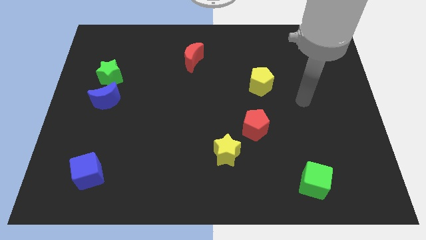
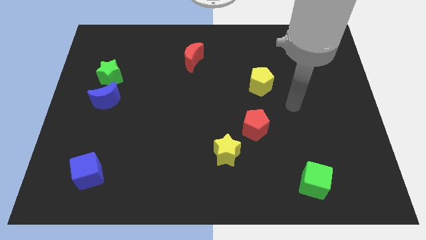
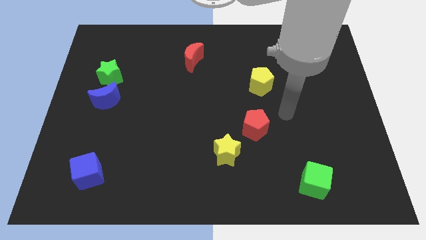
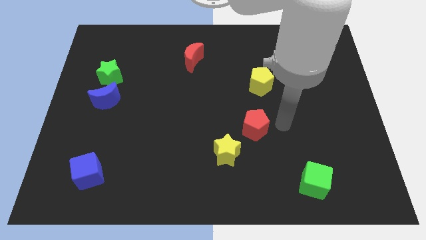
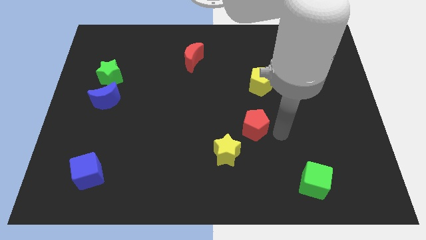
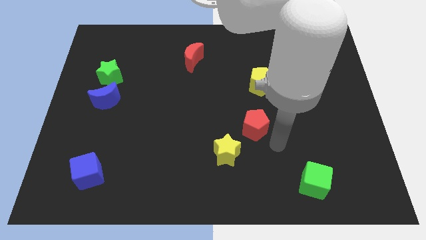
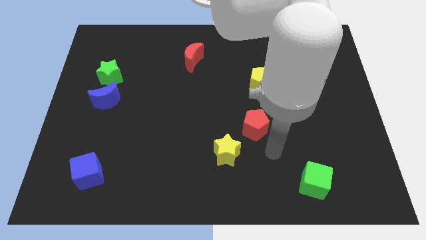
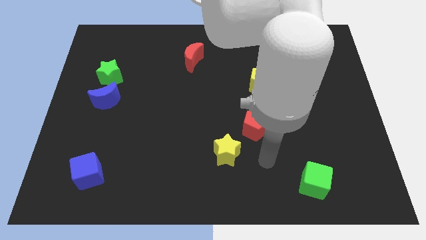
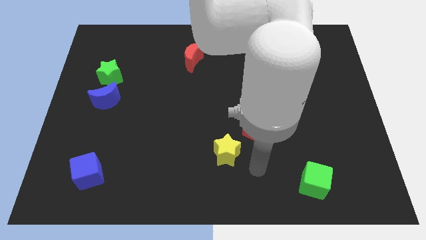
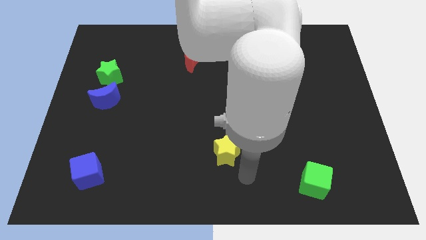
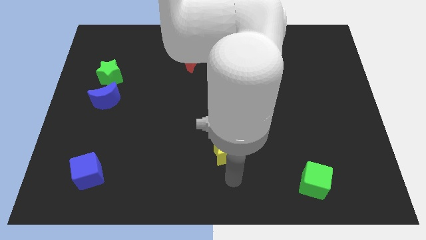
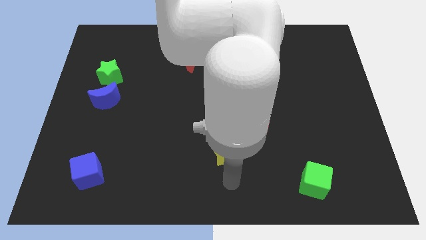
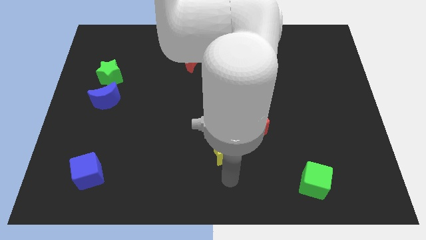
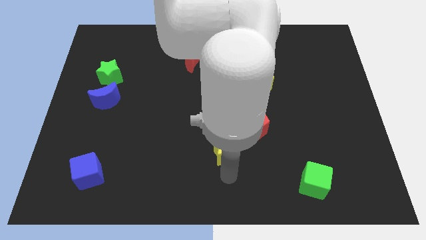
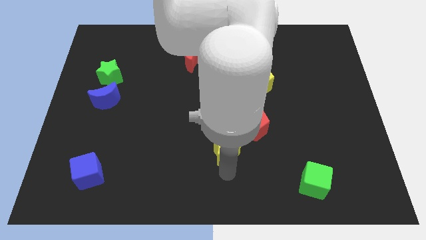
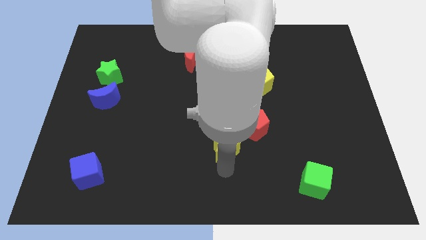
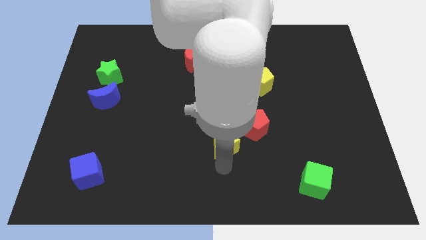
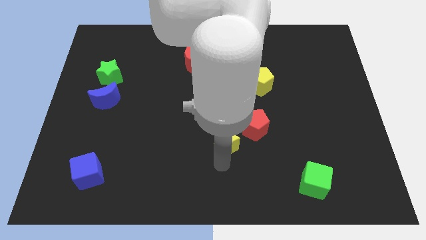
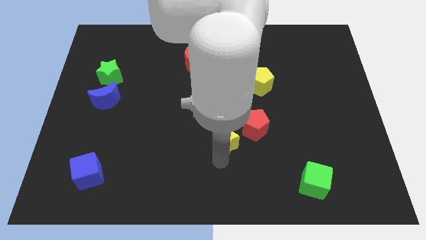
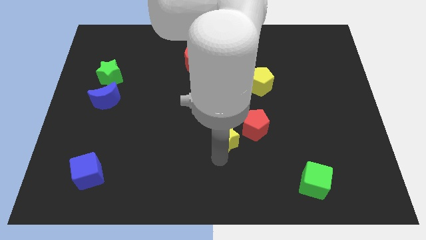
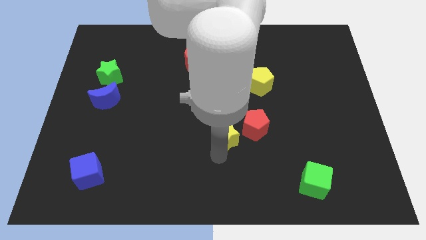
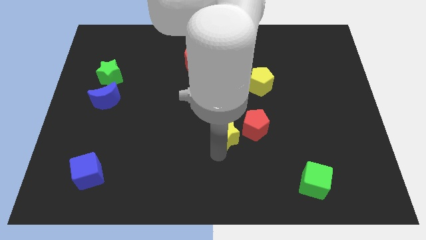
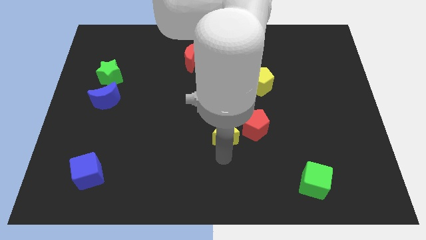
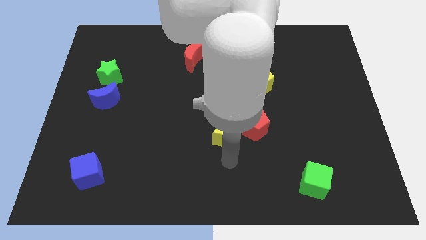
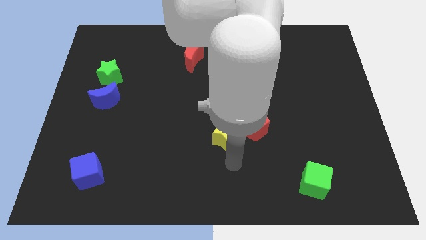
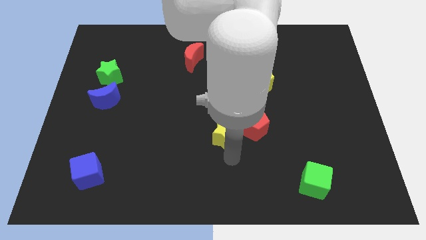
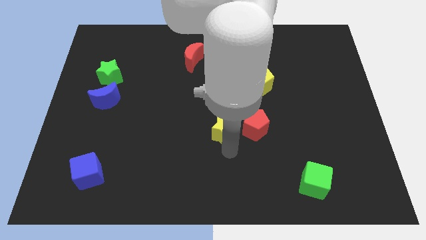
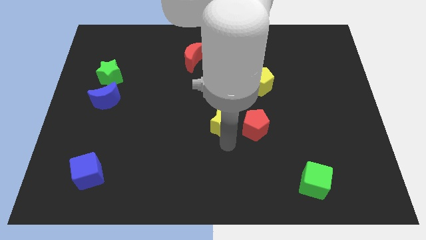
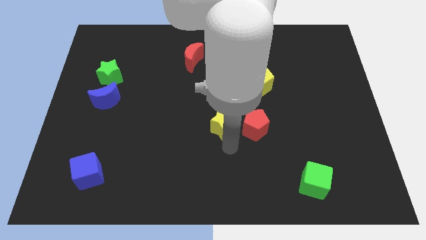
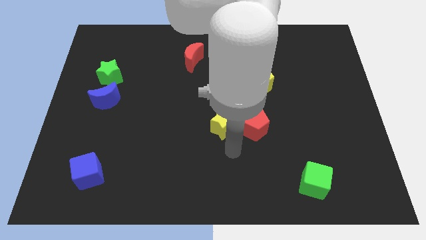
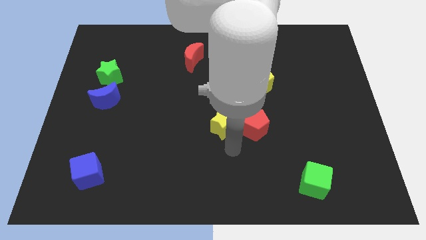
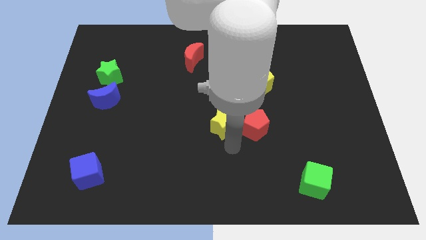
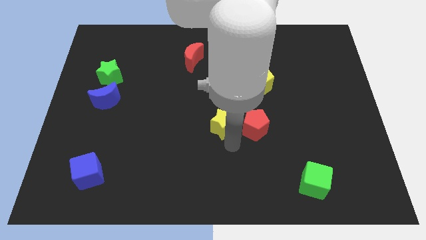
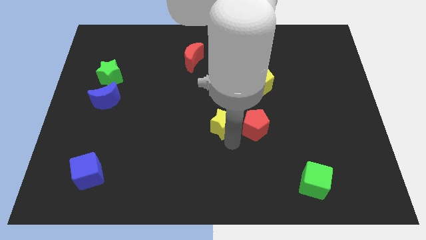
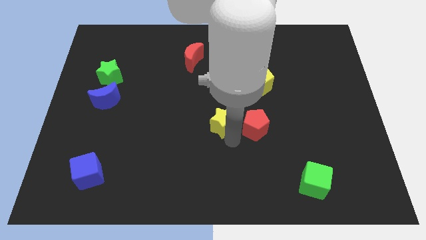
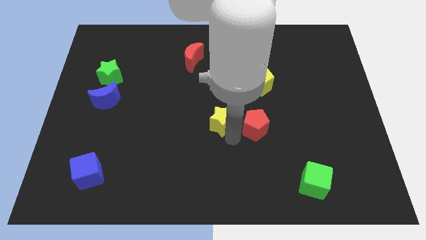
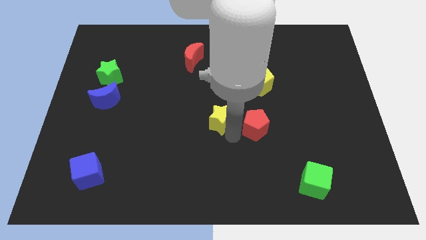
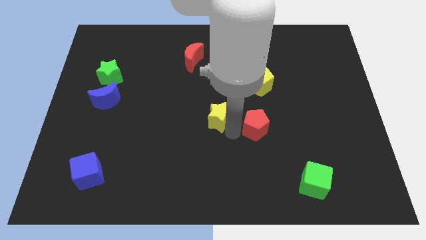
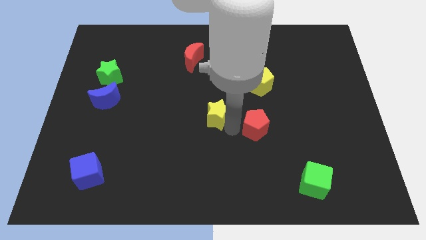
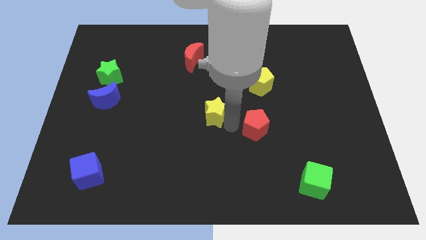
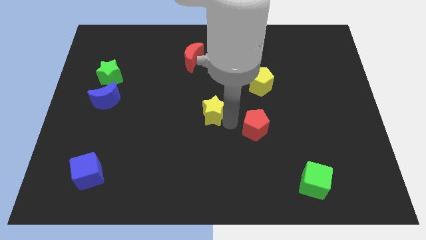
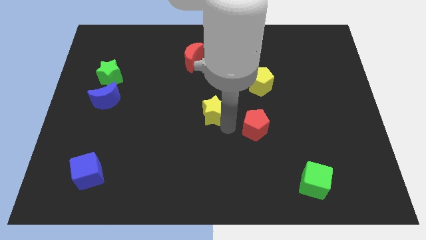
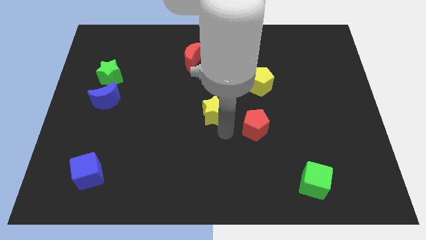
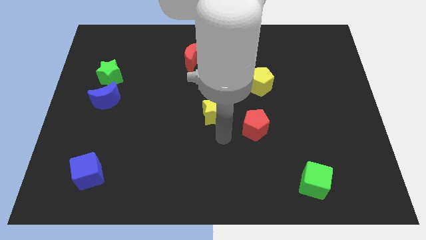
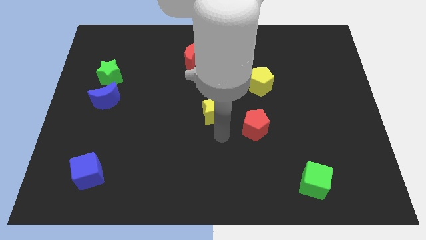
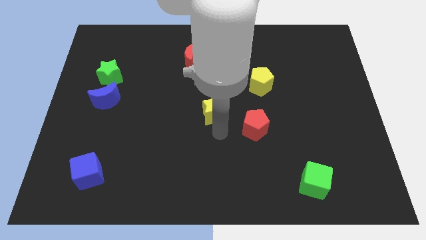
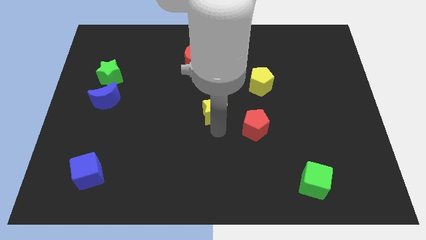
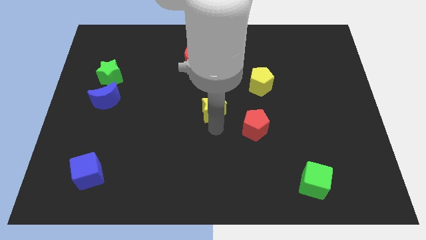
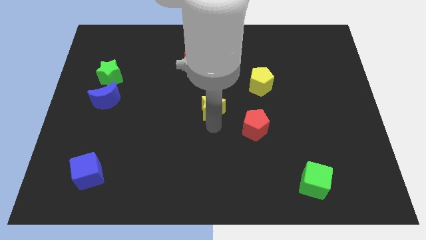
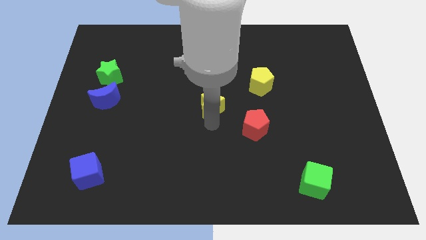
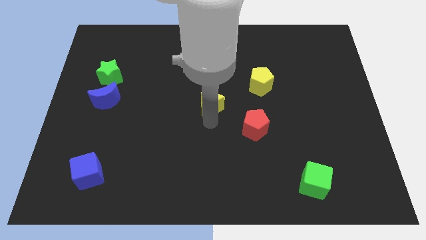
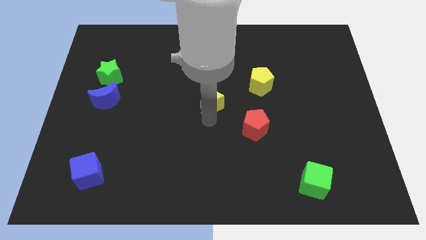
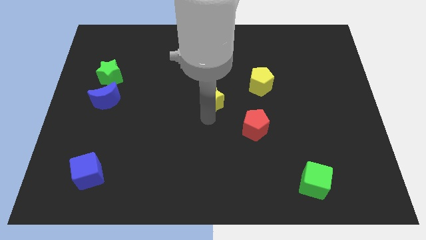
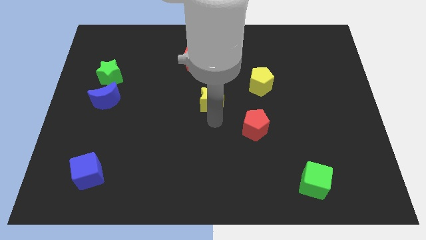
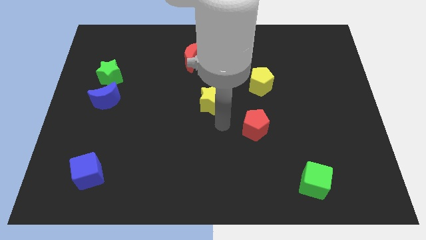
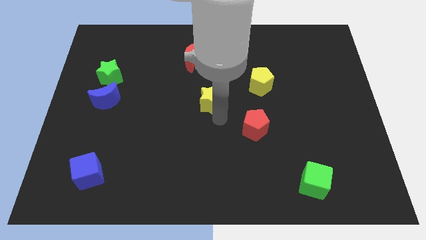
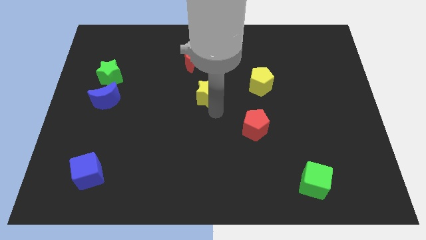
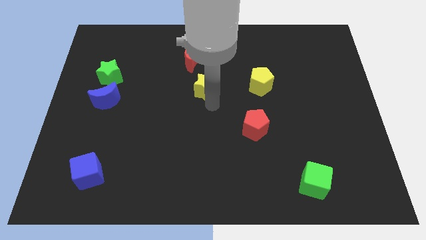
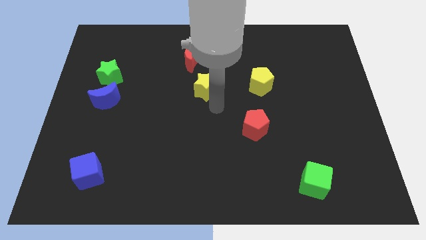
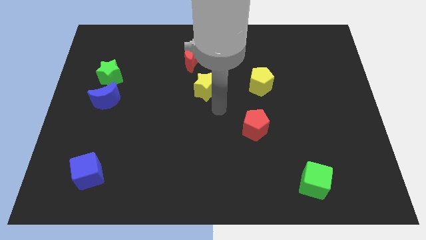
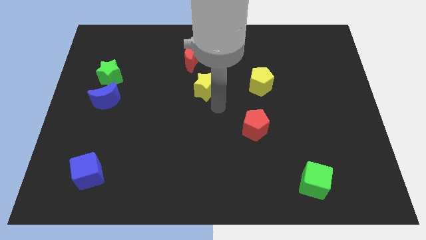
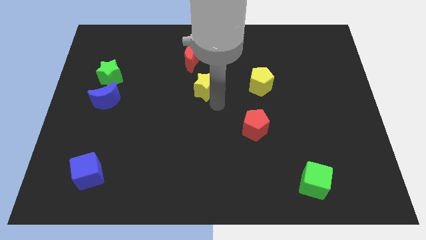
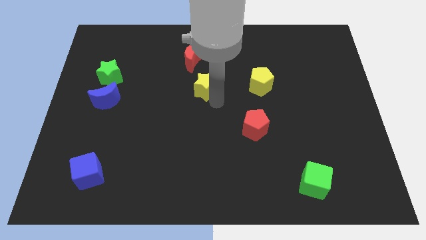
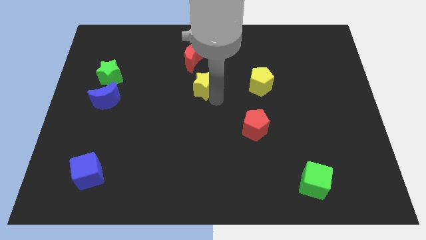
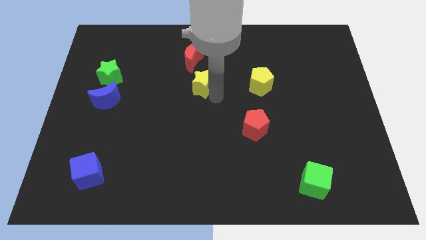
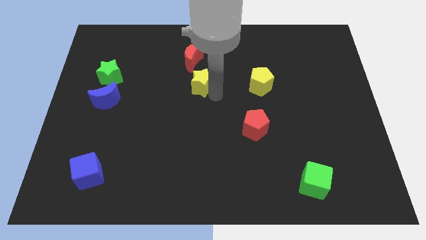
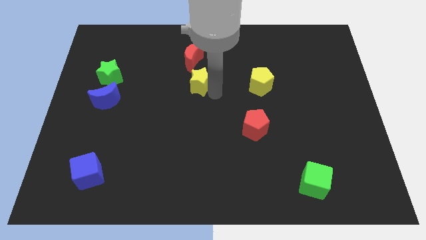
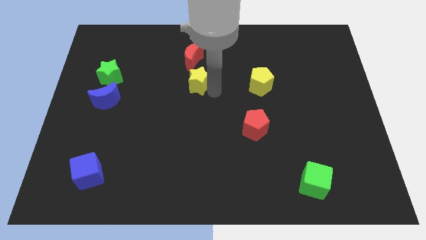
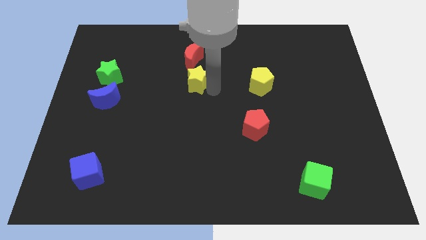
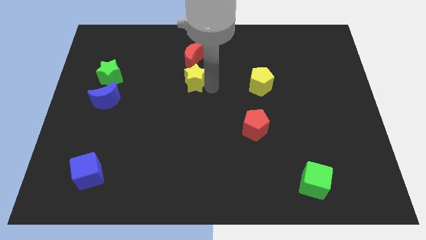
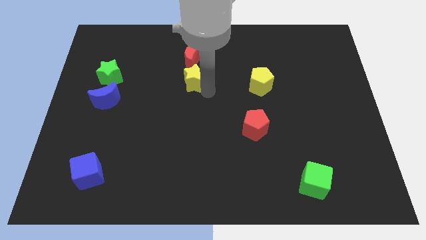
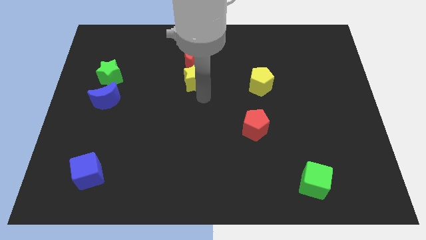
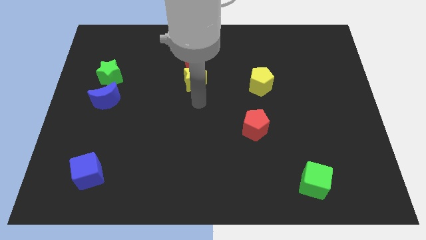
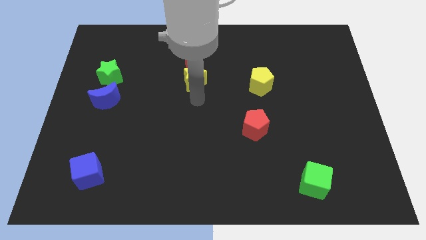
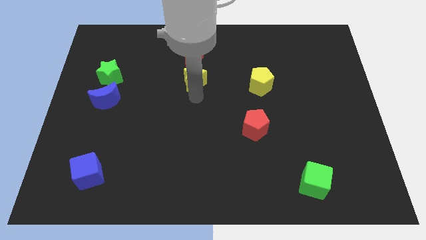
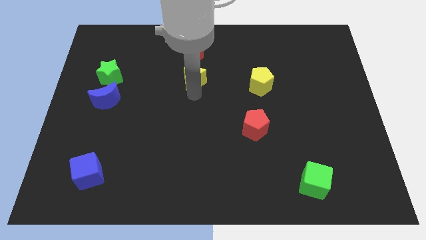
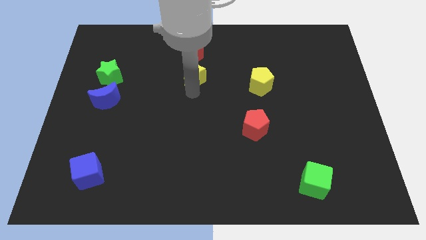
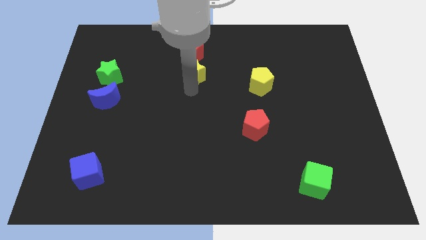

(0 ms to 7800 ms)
slide the yellow star towards the red moon

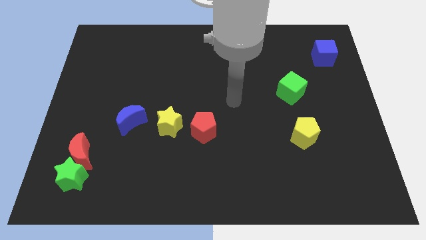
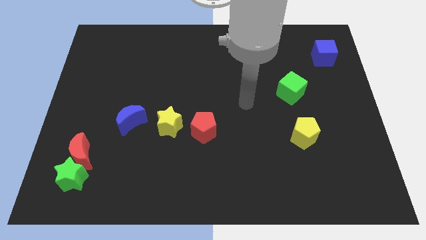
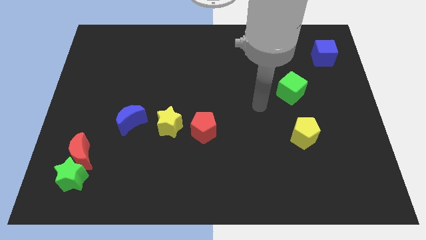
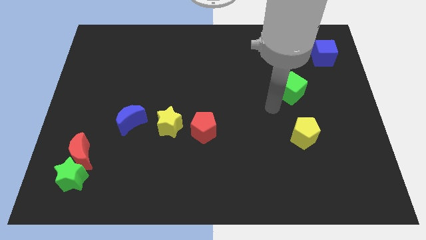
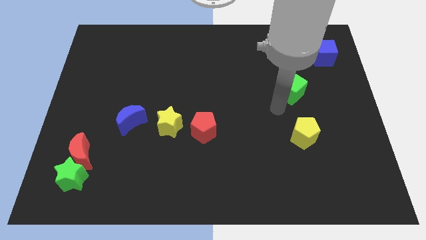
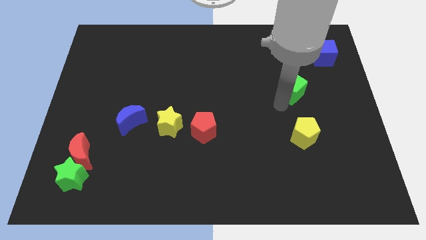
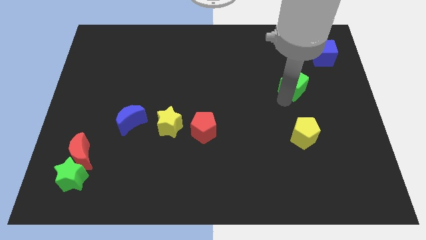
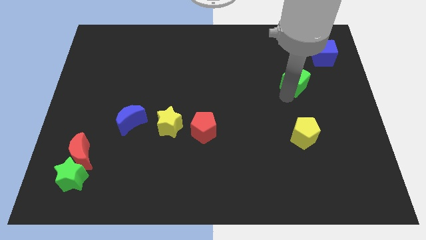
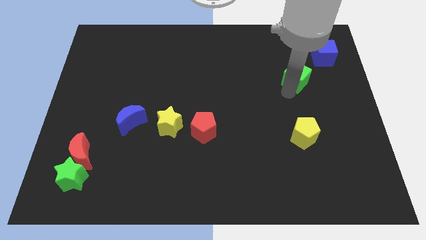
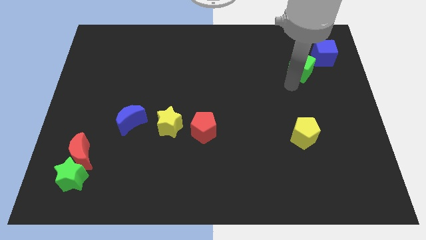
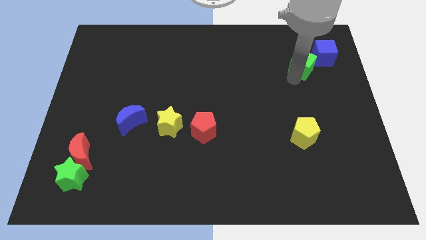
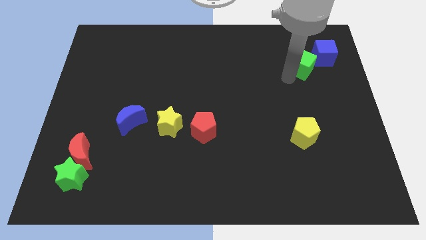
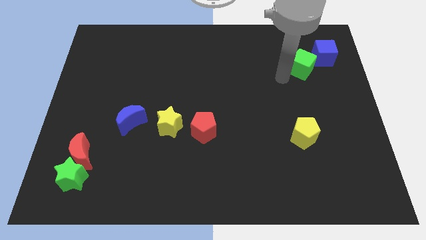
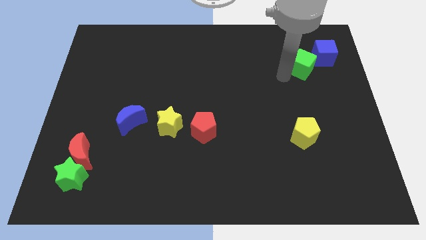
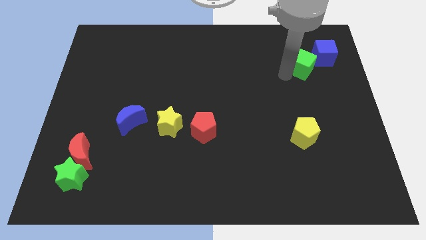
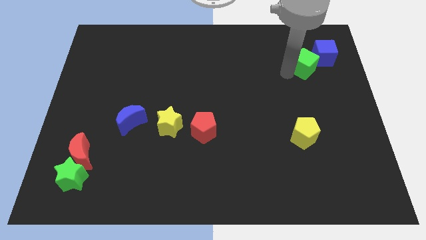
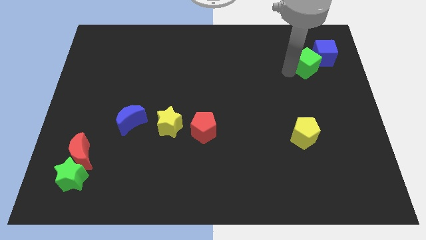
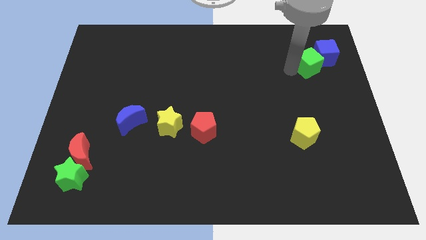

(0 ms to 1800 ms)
move the green cube to the blue cube
